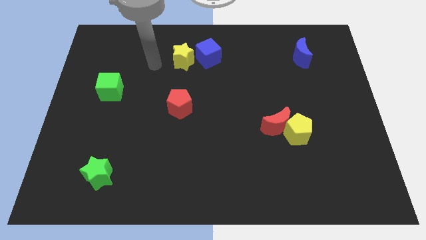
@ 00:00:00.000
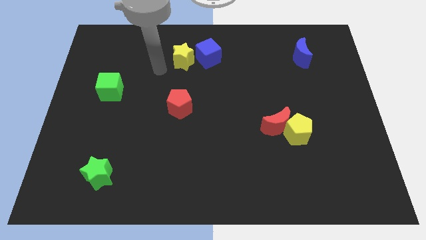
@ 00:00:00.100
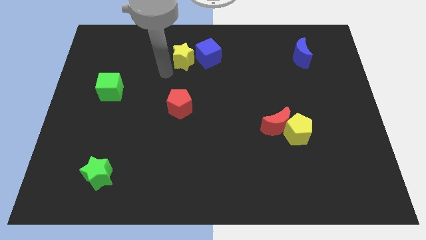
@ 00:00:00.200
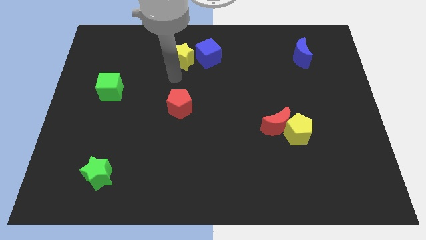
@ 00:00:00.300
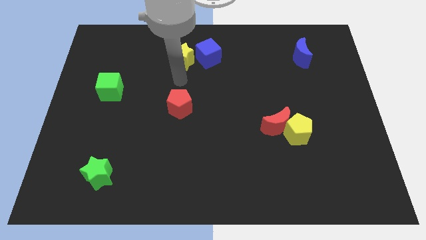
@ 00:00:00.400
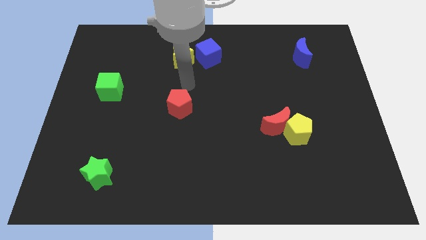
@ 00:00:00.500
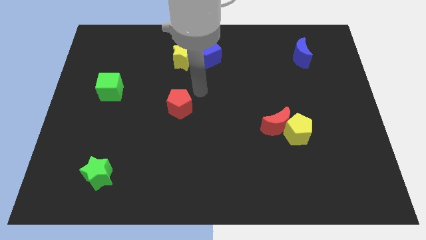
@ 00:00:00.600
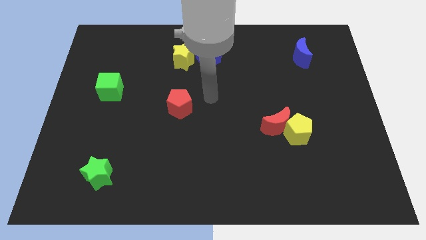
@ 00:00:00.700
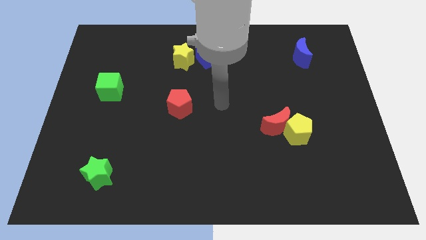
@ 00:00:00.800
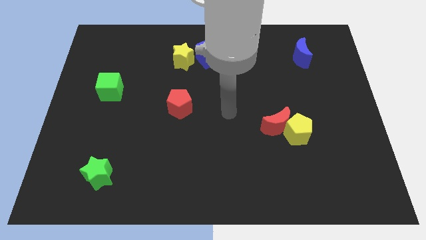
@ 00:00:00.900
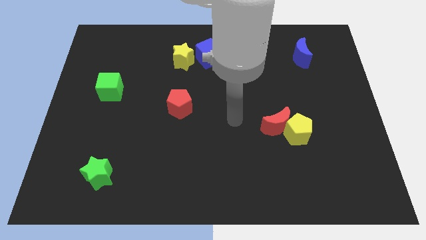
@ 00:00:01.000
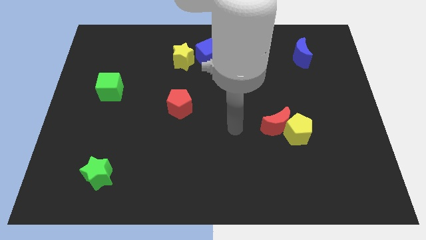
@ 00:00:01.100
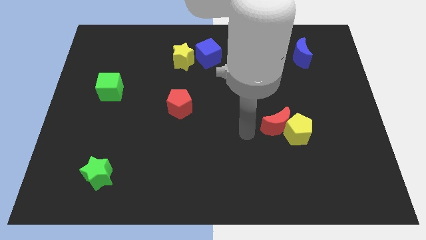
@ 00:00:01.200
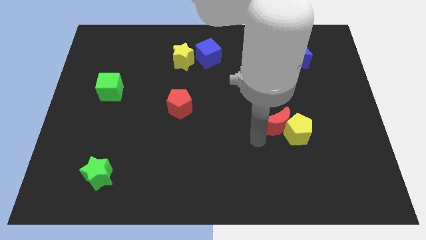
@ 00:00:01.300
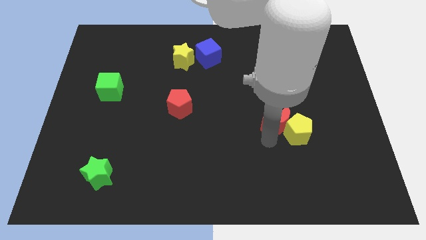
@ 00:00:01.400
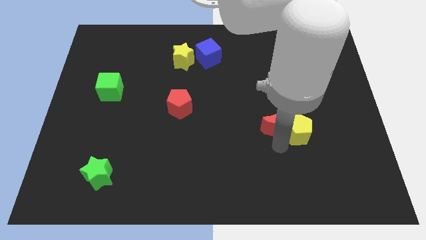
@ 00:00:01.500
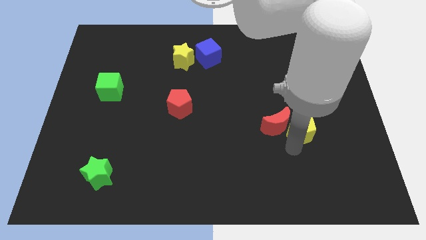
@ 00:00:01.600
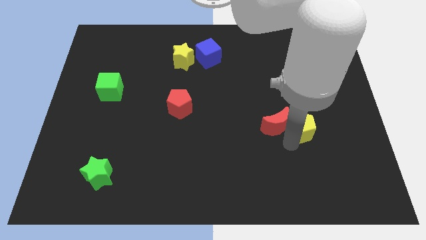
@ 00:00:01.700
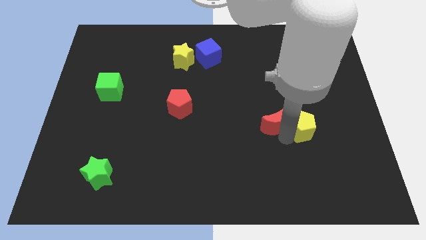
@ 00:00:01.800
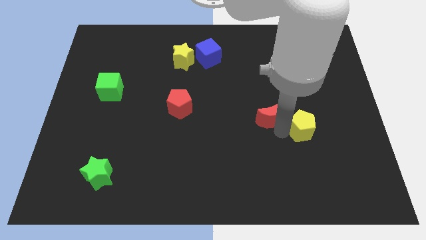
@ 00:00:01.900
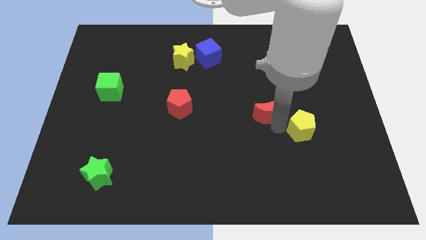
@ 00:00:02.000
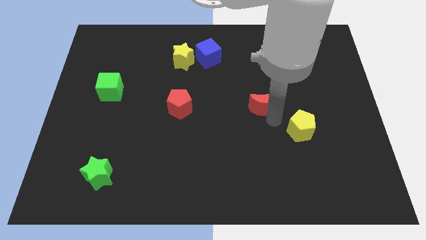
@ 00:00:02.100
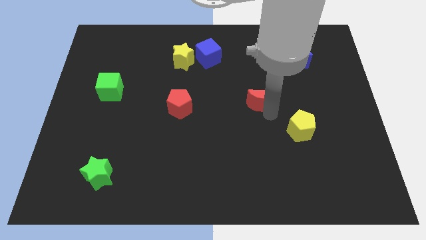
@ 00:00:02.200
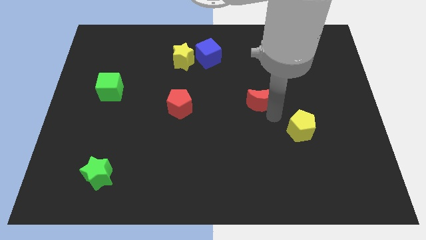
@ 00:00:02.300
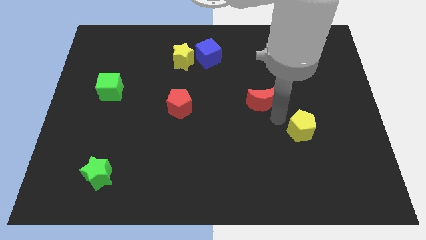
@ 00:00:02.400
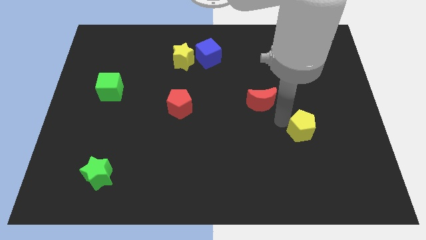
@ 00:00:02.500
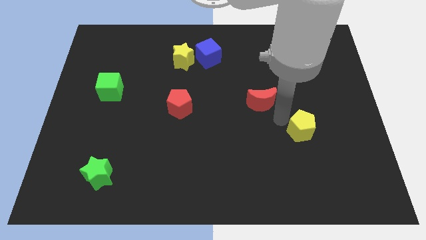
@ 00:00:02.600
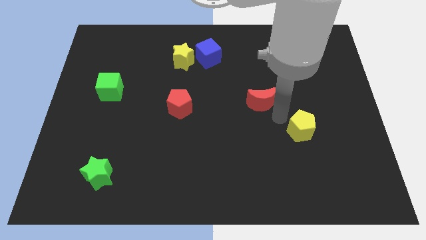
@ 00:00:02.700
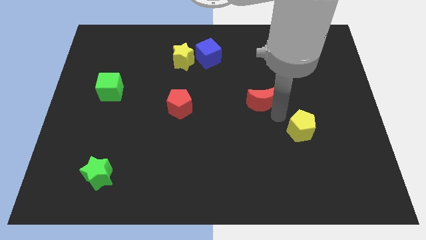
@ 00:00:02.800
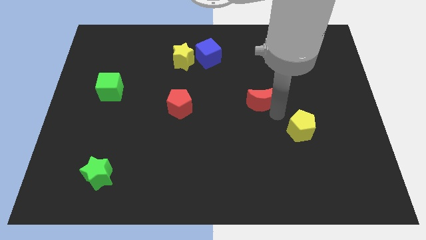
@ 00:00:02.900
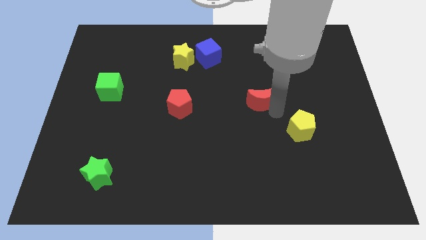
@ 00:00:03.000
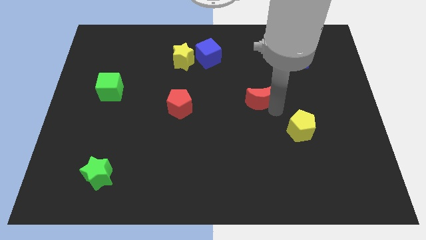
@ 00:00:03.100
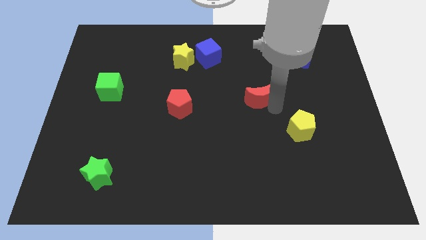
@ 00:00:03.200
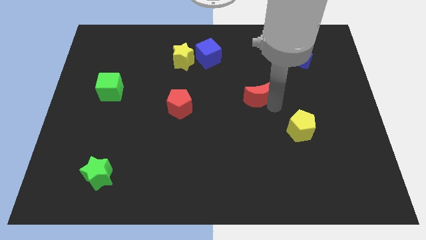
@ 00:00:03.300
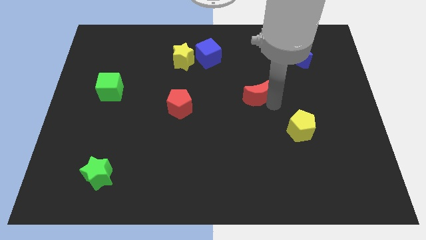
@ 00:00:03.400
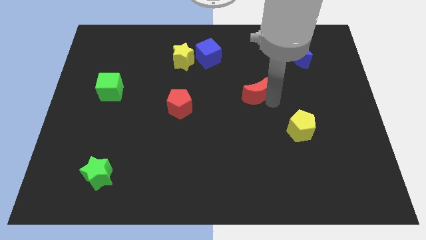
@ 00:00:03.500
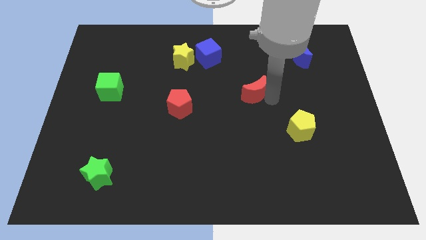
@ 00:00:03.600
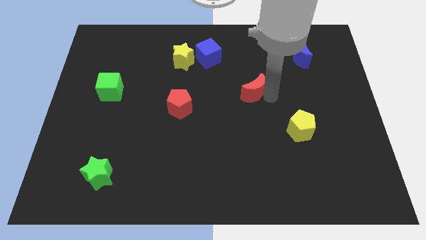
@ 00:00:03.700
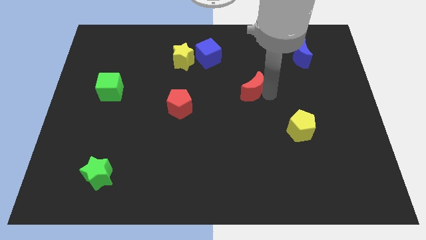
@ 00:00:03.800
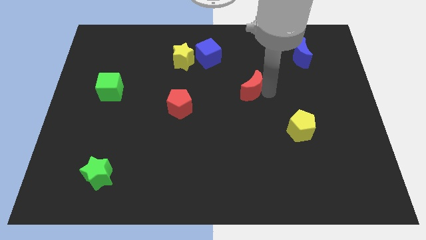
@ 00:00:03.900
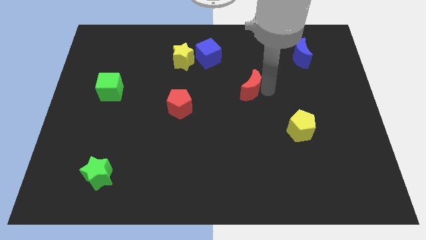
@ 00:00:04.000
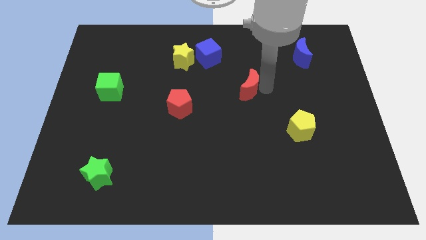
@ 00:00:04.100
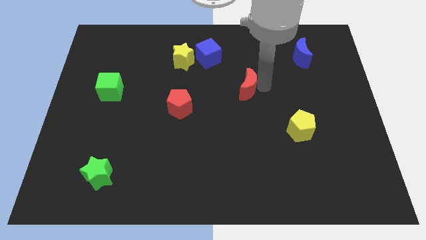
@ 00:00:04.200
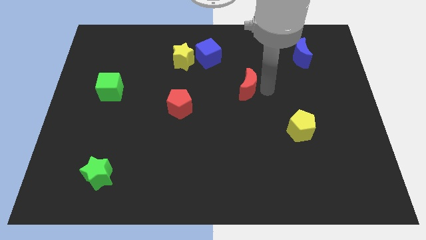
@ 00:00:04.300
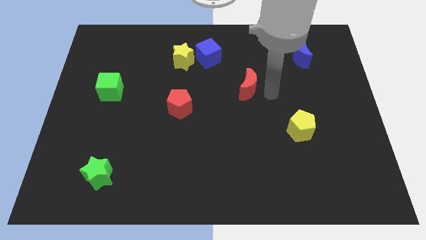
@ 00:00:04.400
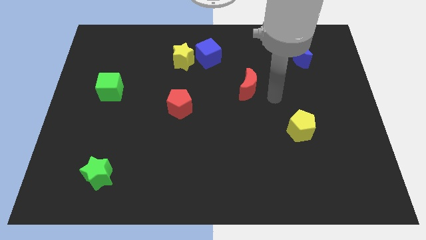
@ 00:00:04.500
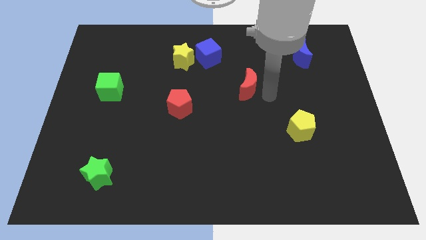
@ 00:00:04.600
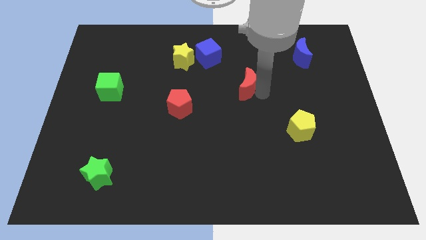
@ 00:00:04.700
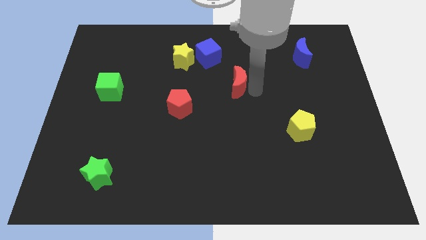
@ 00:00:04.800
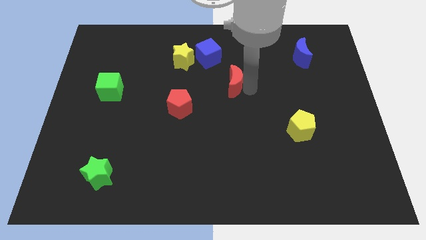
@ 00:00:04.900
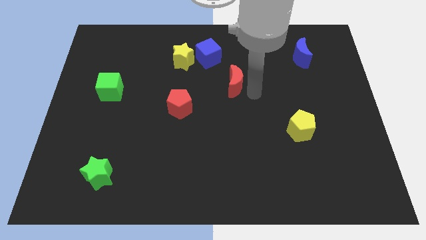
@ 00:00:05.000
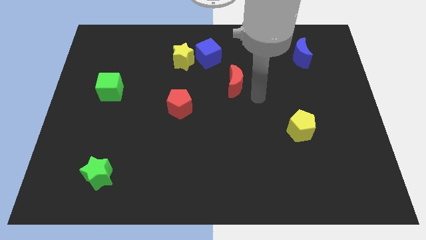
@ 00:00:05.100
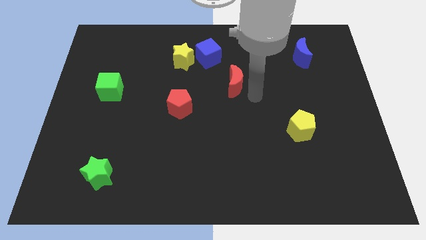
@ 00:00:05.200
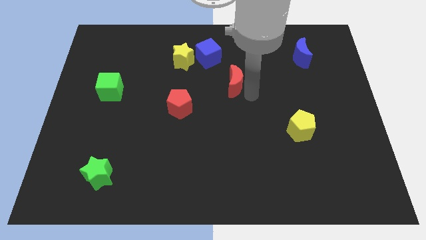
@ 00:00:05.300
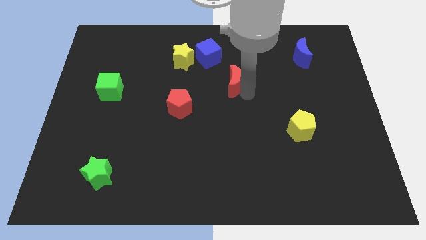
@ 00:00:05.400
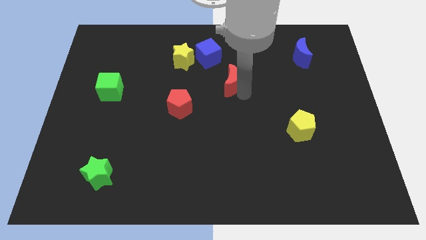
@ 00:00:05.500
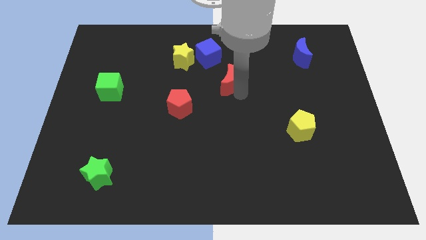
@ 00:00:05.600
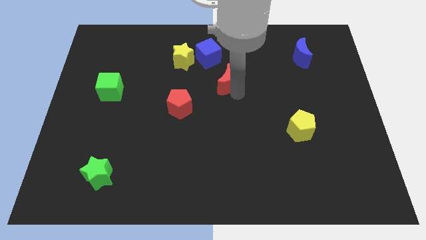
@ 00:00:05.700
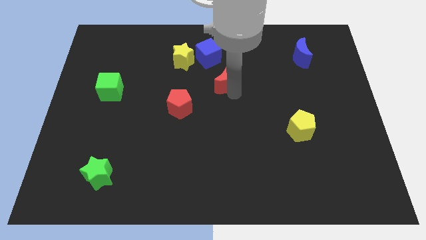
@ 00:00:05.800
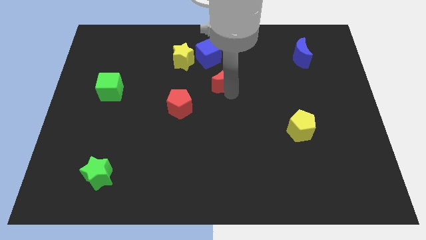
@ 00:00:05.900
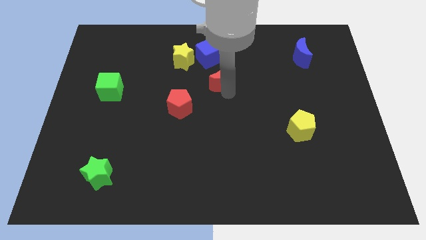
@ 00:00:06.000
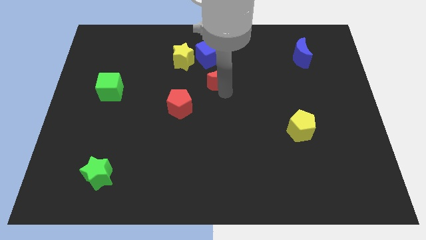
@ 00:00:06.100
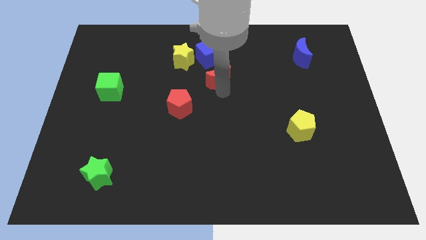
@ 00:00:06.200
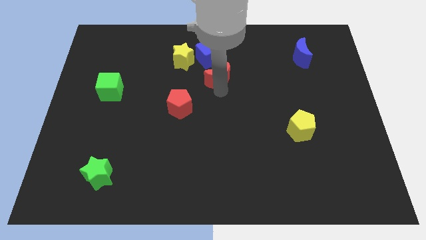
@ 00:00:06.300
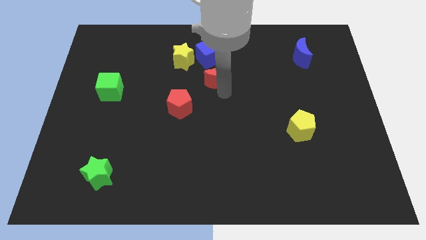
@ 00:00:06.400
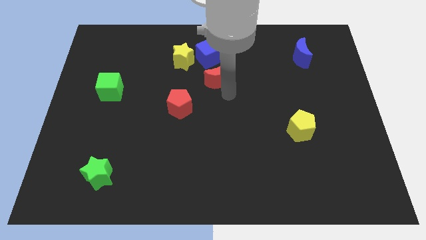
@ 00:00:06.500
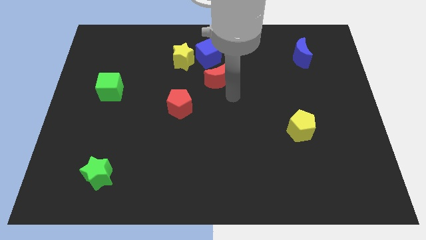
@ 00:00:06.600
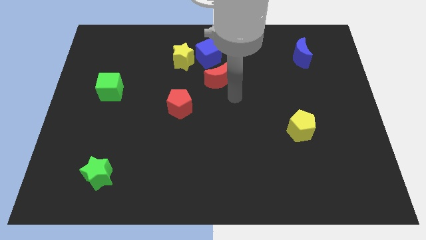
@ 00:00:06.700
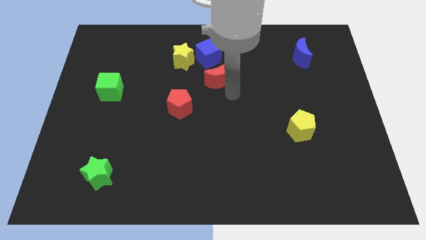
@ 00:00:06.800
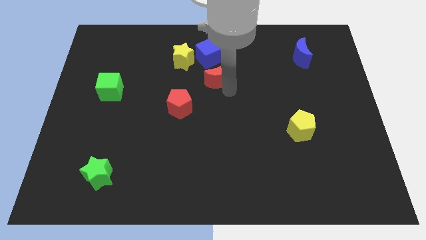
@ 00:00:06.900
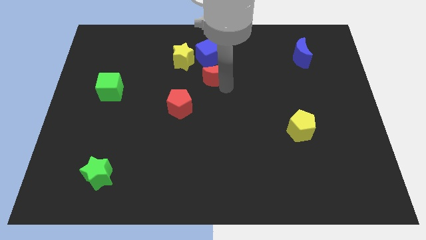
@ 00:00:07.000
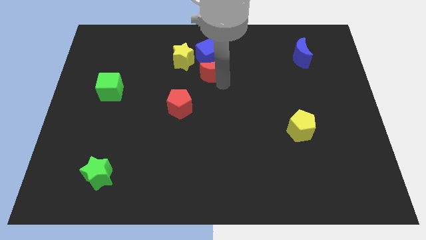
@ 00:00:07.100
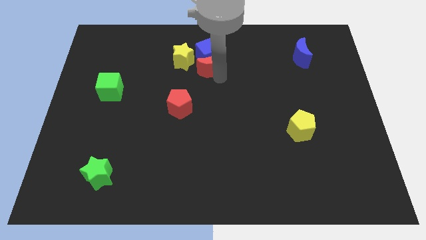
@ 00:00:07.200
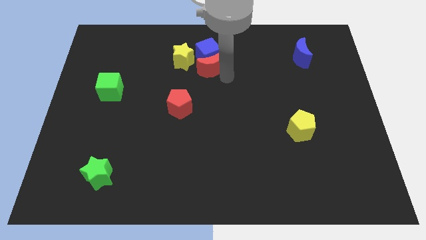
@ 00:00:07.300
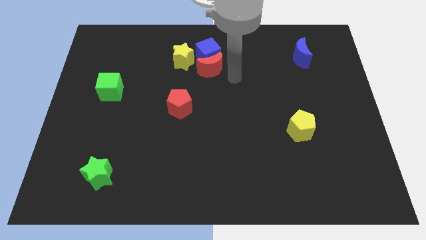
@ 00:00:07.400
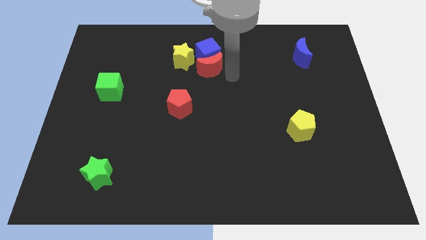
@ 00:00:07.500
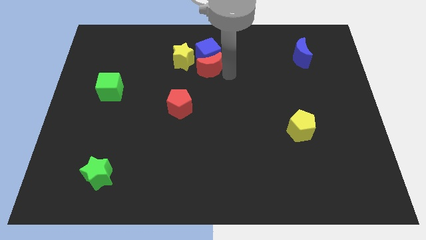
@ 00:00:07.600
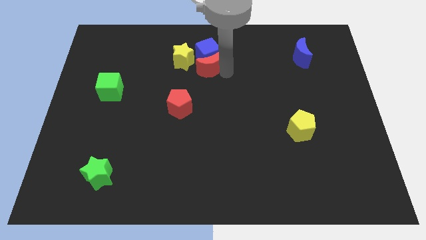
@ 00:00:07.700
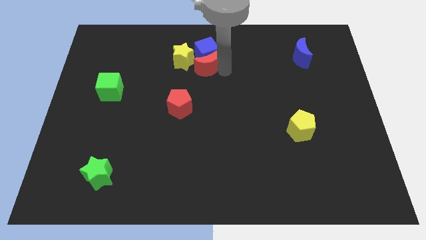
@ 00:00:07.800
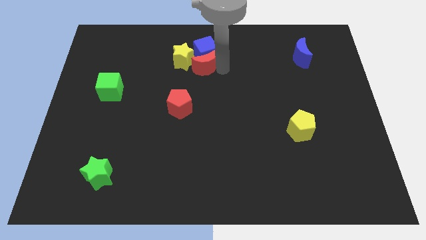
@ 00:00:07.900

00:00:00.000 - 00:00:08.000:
move the red moon close to the yellow star
